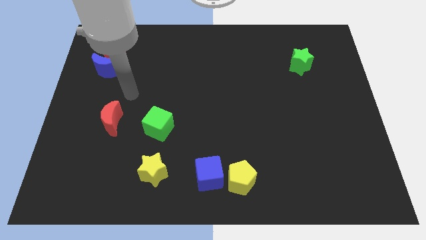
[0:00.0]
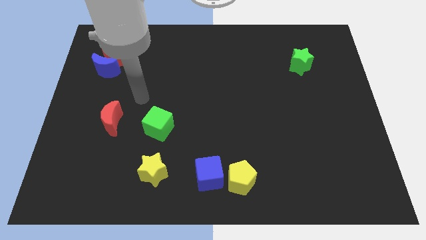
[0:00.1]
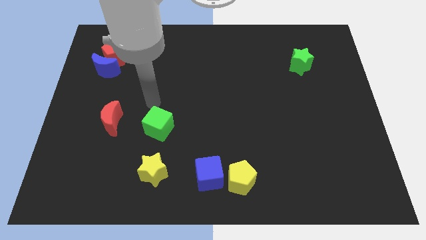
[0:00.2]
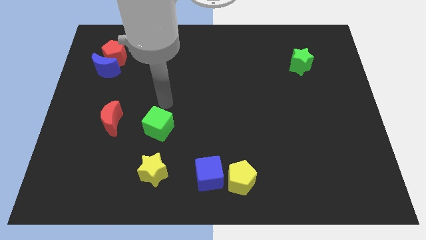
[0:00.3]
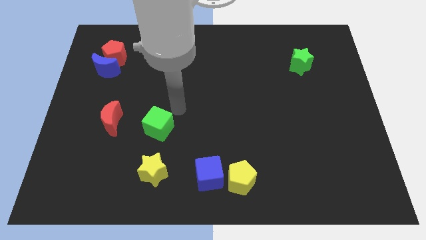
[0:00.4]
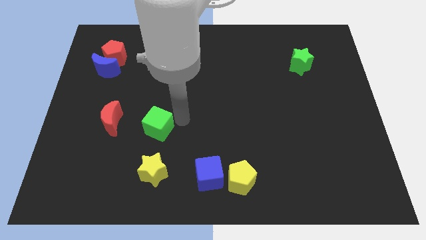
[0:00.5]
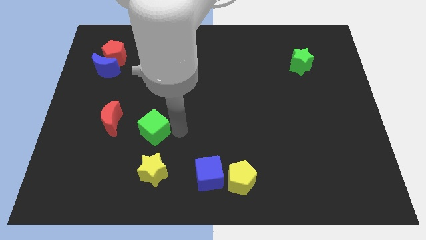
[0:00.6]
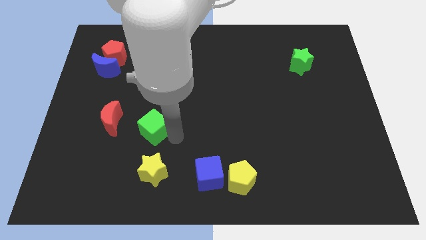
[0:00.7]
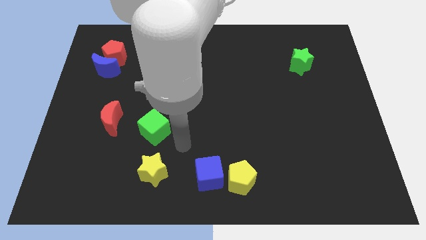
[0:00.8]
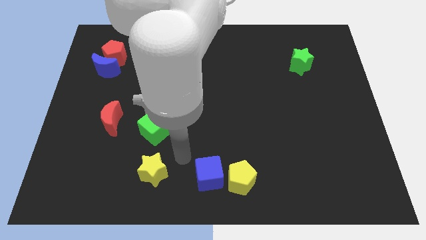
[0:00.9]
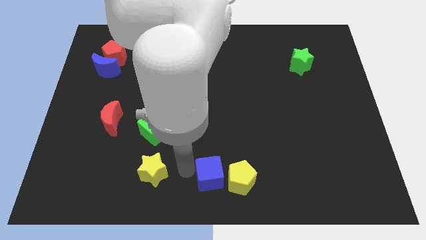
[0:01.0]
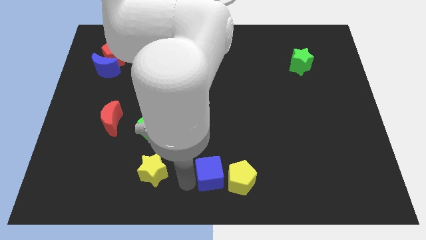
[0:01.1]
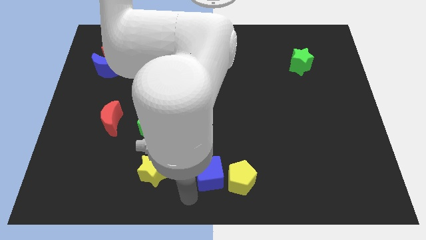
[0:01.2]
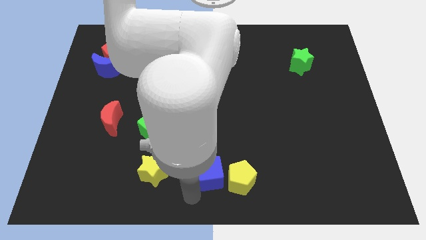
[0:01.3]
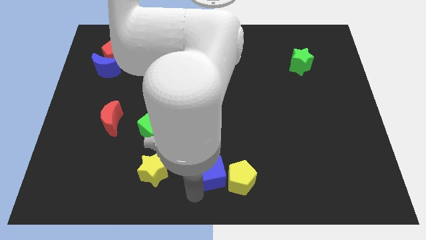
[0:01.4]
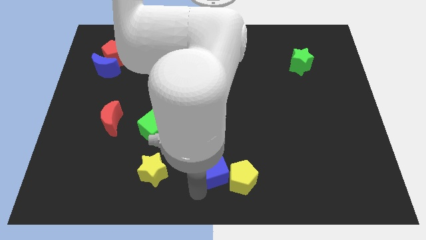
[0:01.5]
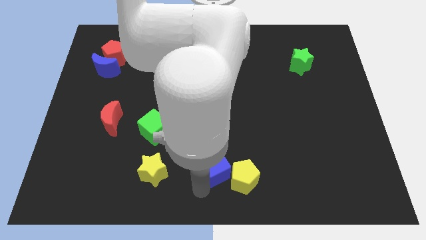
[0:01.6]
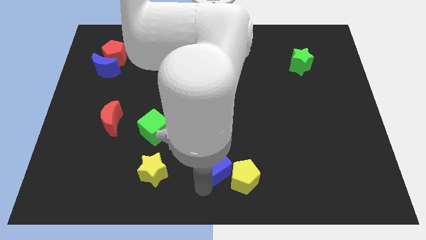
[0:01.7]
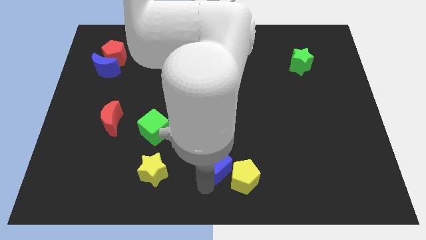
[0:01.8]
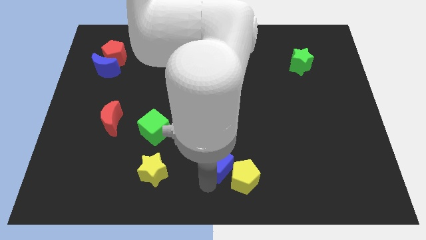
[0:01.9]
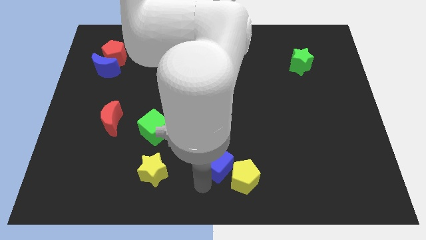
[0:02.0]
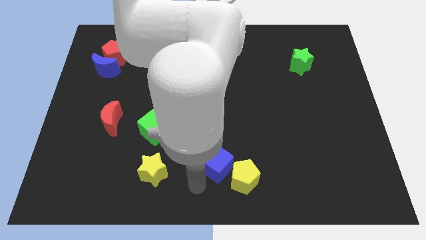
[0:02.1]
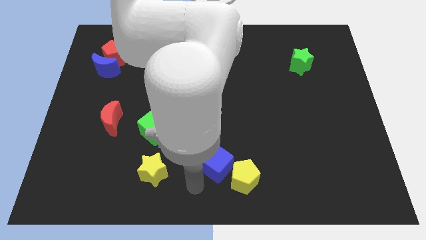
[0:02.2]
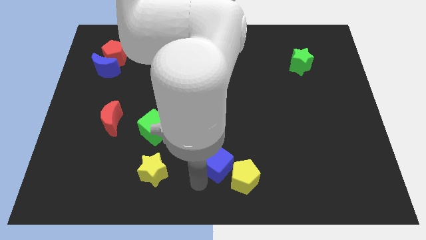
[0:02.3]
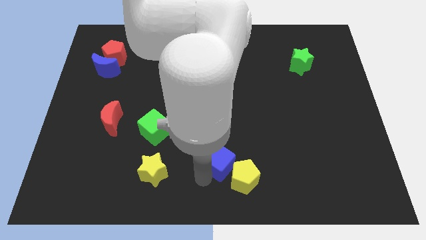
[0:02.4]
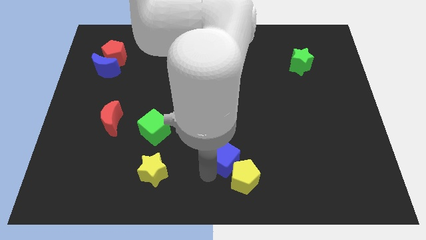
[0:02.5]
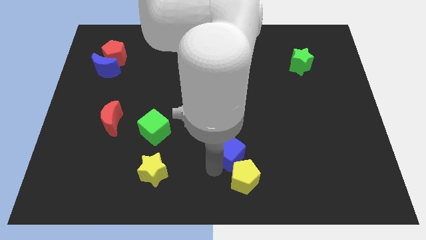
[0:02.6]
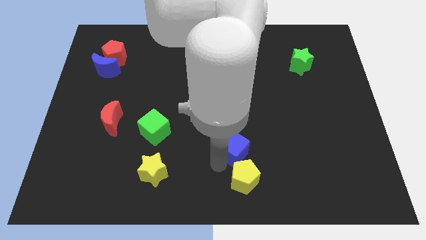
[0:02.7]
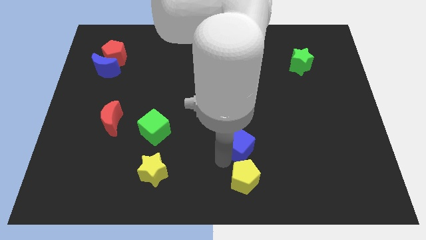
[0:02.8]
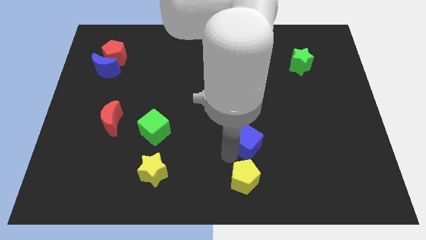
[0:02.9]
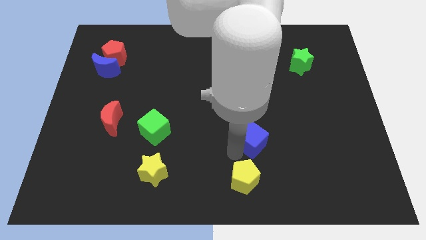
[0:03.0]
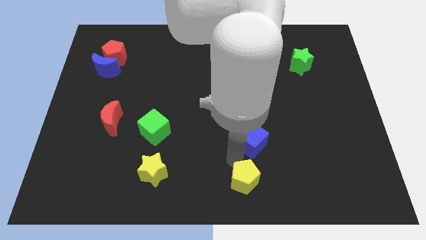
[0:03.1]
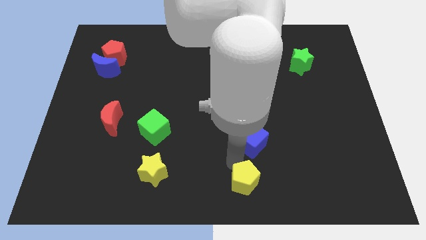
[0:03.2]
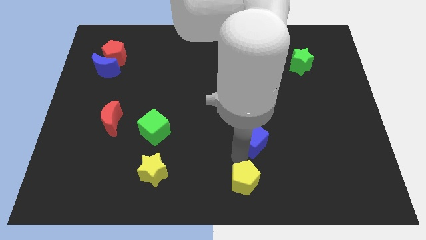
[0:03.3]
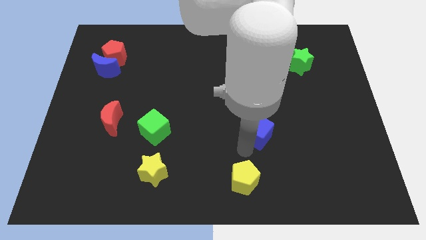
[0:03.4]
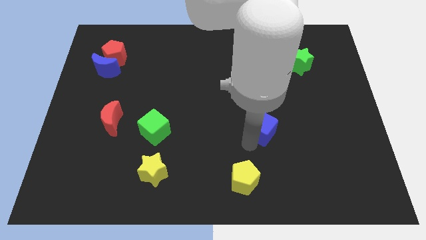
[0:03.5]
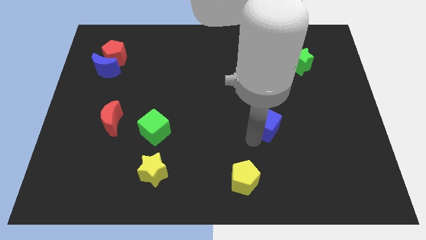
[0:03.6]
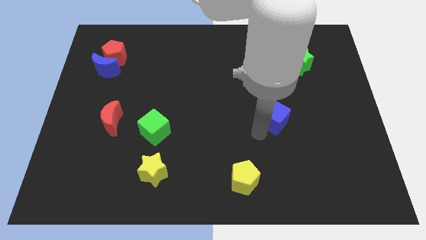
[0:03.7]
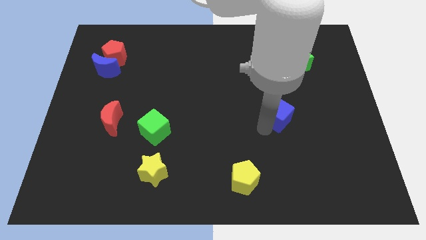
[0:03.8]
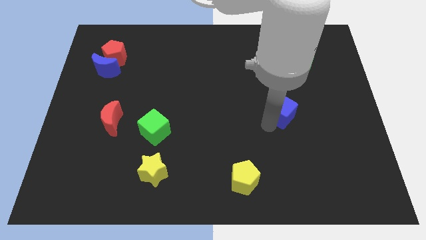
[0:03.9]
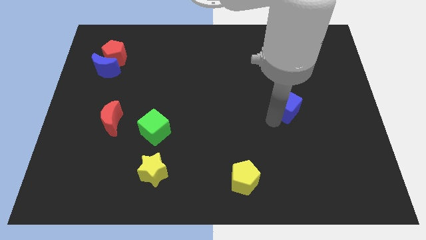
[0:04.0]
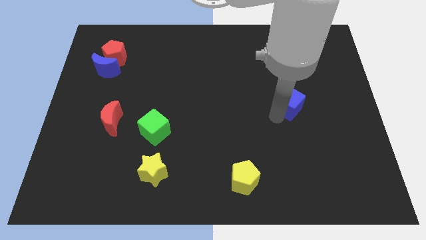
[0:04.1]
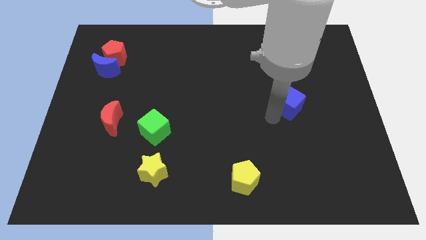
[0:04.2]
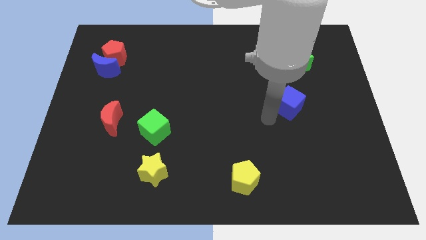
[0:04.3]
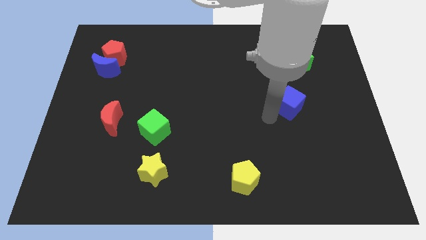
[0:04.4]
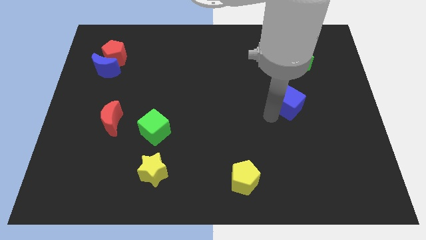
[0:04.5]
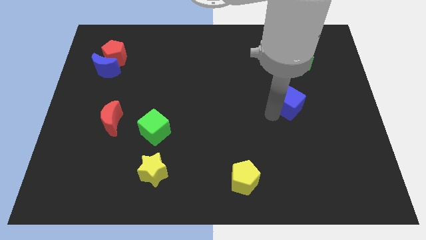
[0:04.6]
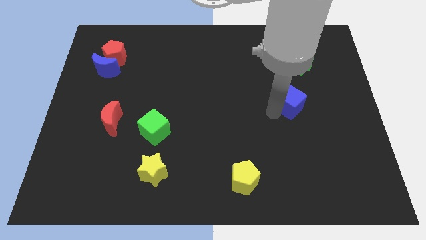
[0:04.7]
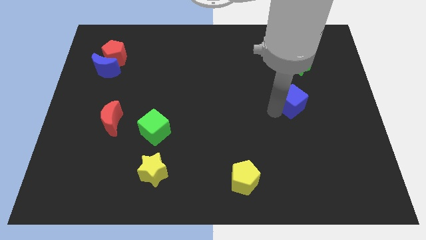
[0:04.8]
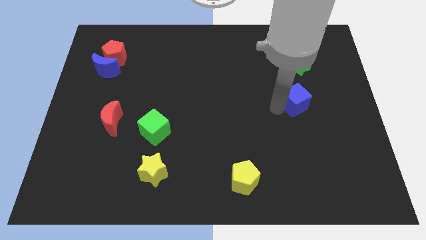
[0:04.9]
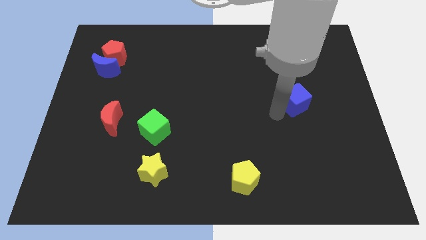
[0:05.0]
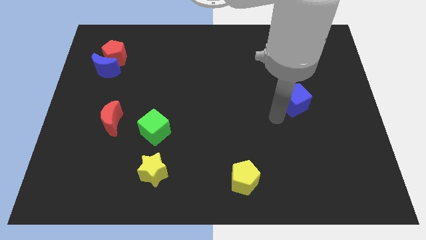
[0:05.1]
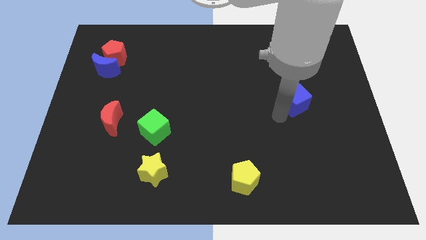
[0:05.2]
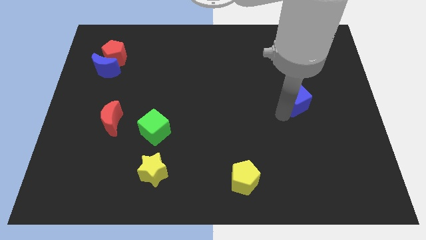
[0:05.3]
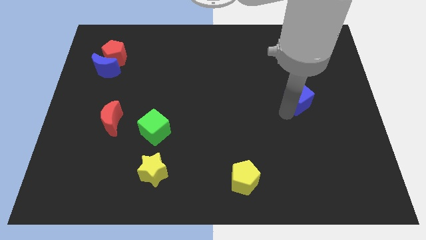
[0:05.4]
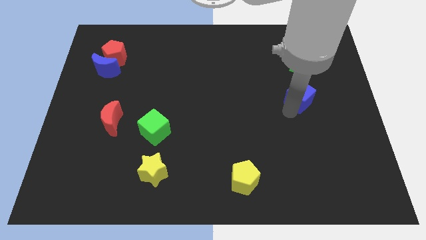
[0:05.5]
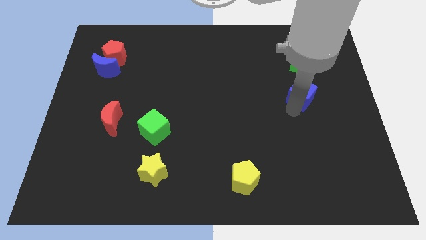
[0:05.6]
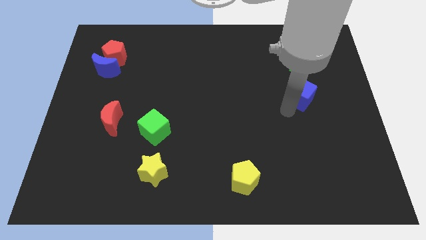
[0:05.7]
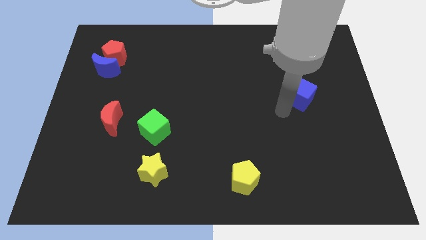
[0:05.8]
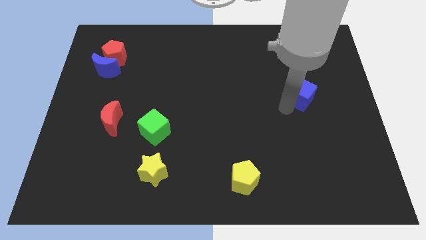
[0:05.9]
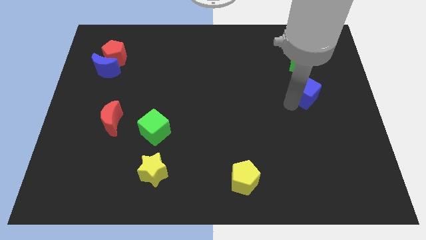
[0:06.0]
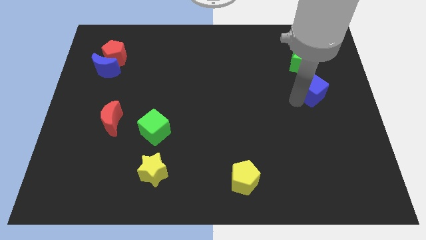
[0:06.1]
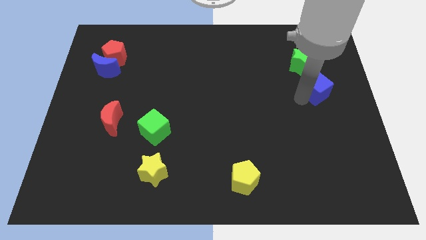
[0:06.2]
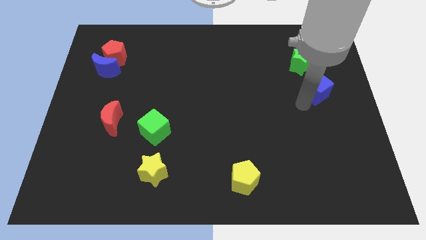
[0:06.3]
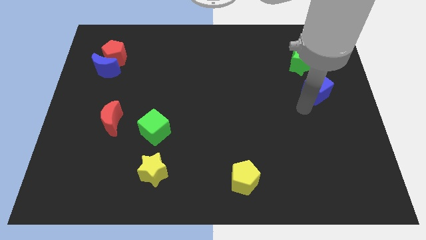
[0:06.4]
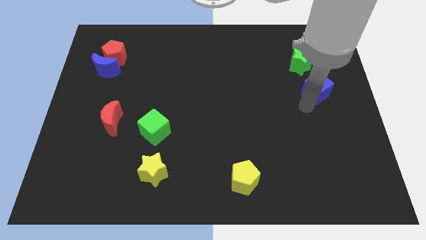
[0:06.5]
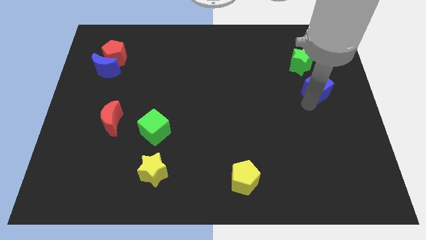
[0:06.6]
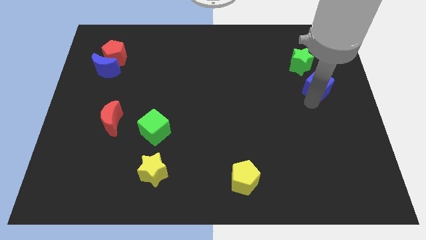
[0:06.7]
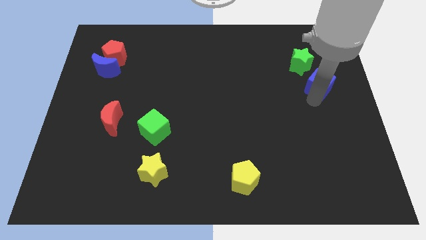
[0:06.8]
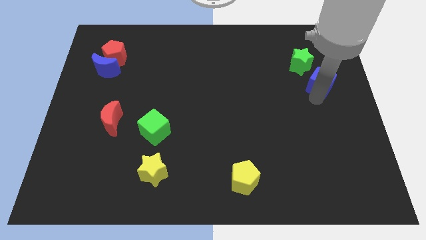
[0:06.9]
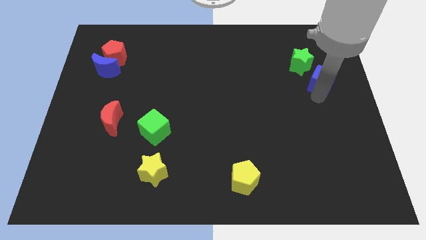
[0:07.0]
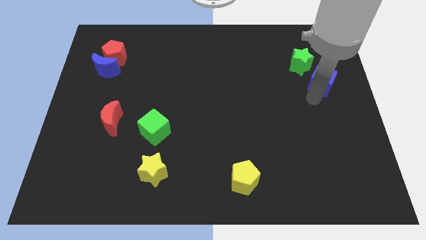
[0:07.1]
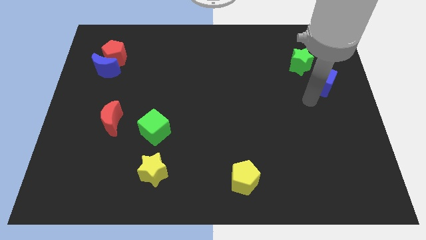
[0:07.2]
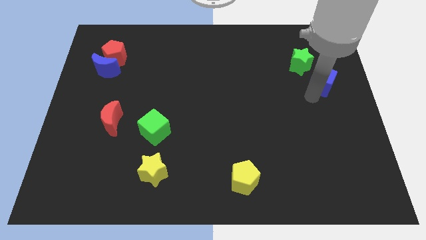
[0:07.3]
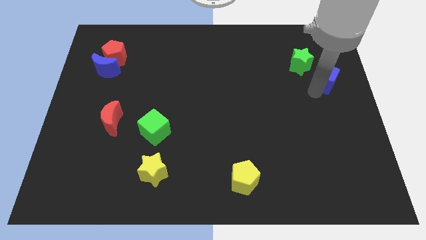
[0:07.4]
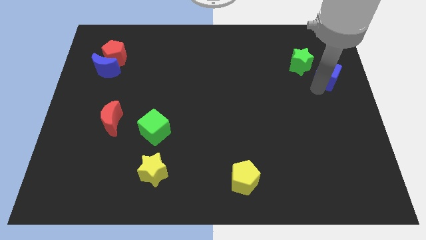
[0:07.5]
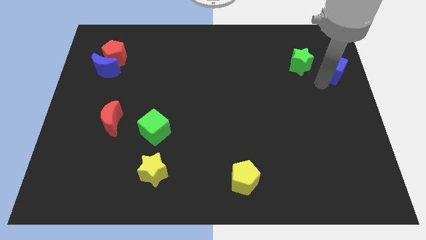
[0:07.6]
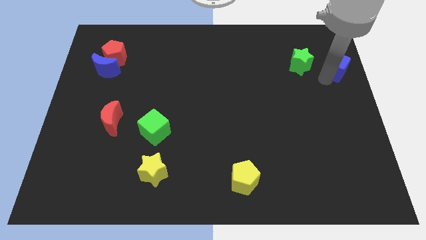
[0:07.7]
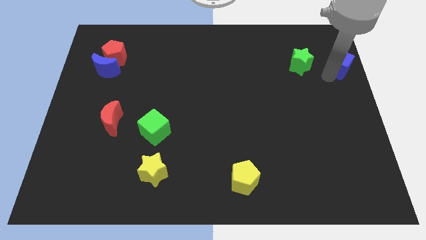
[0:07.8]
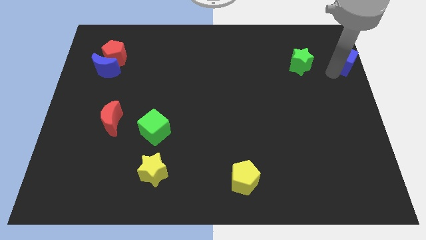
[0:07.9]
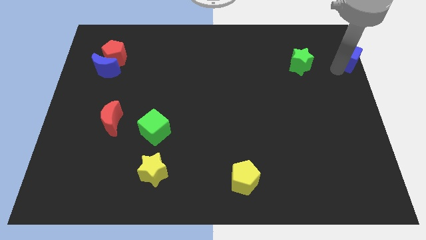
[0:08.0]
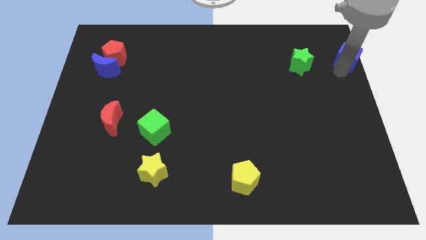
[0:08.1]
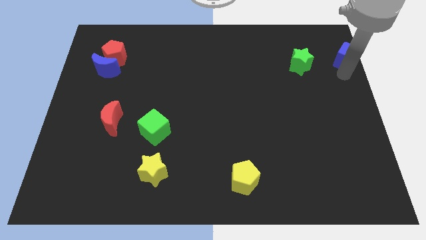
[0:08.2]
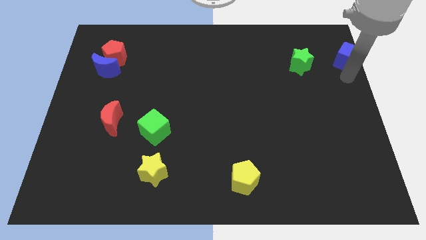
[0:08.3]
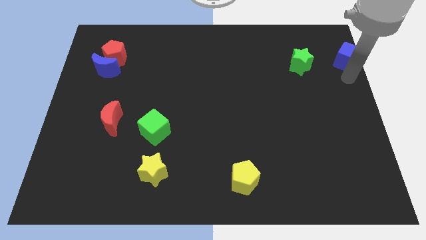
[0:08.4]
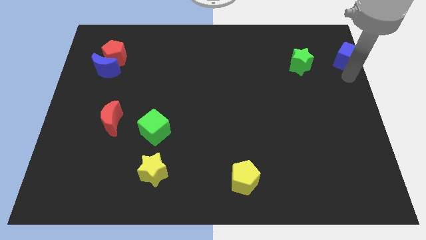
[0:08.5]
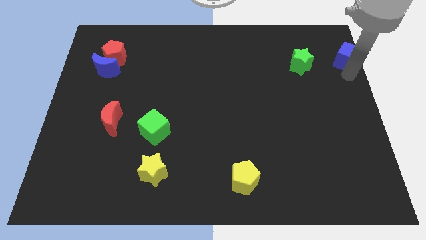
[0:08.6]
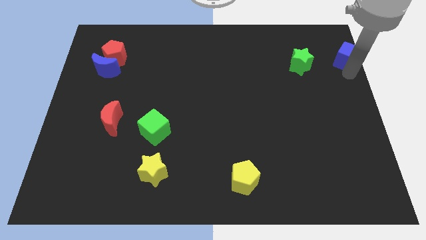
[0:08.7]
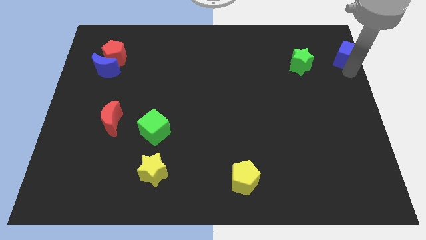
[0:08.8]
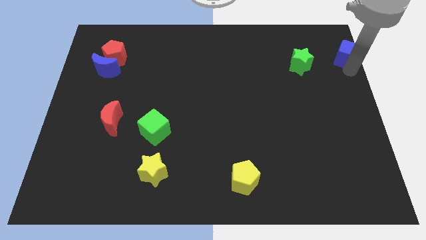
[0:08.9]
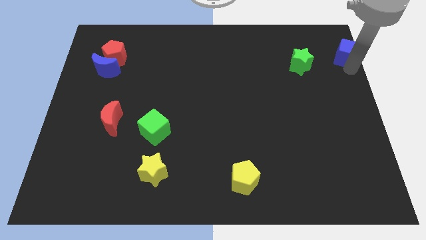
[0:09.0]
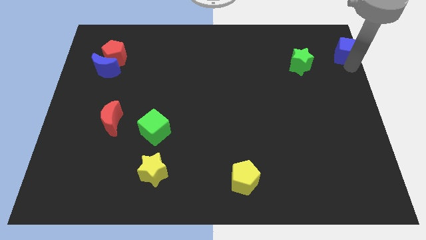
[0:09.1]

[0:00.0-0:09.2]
slide the blue cube to the upper right corner
